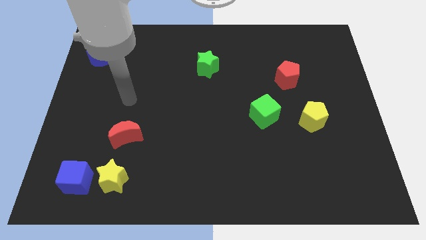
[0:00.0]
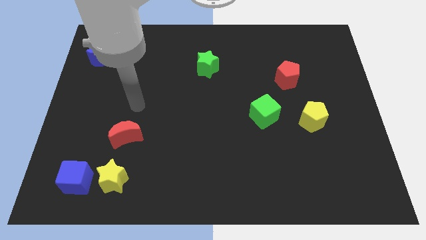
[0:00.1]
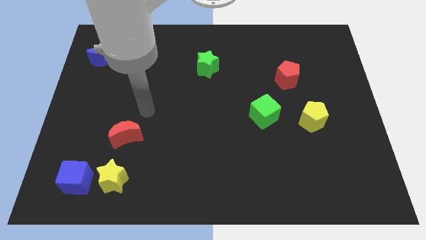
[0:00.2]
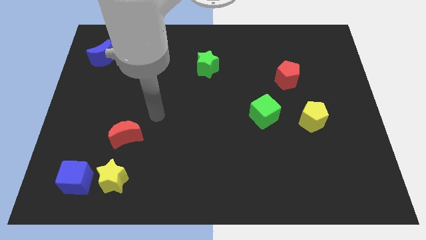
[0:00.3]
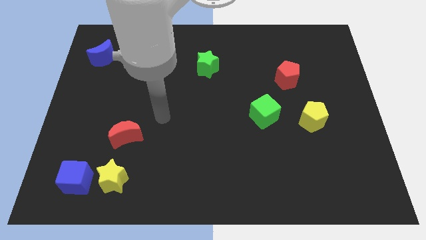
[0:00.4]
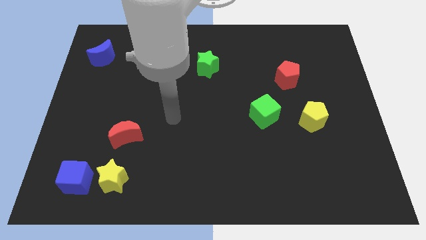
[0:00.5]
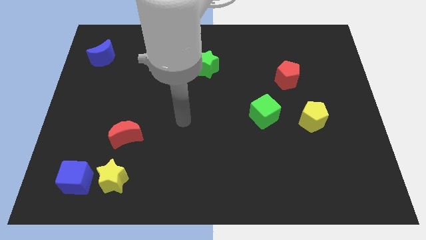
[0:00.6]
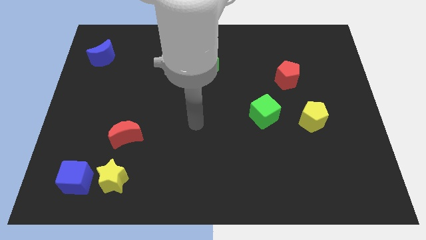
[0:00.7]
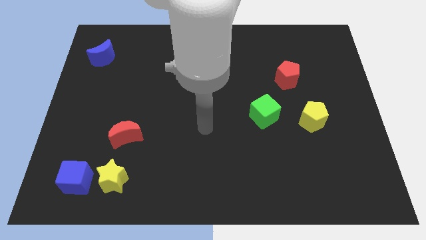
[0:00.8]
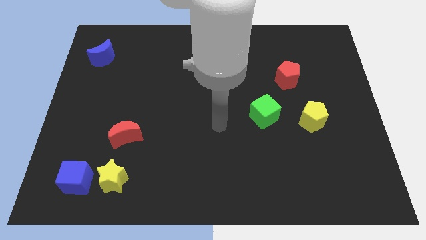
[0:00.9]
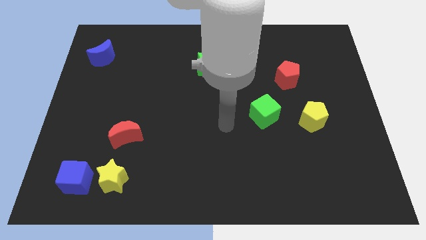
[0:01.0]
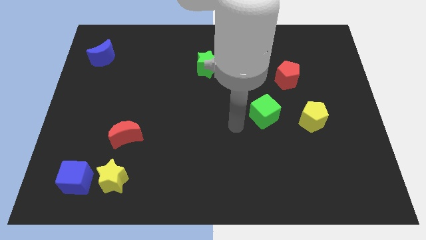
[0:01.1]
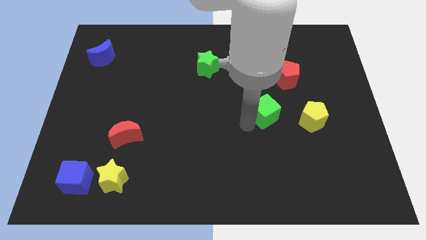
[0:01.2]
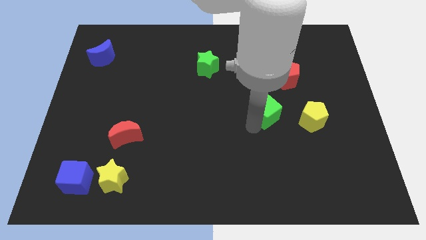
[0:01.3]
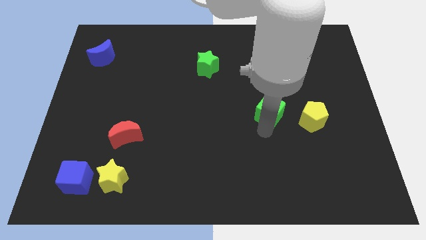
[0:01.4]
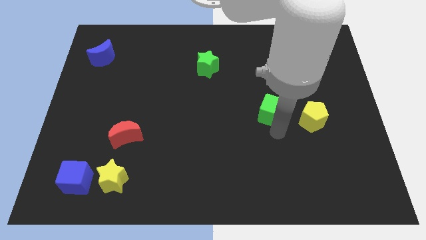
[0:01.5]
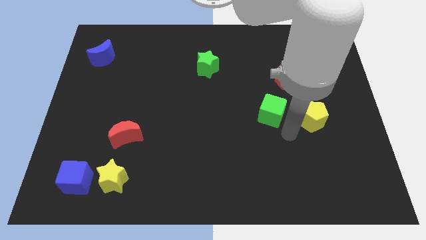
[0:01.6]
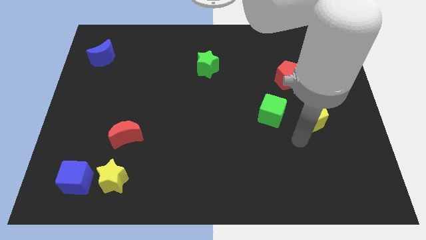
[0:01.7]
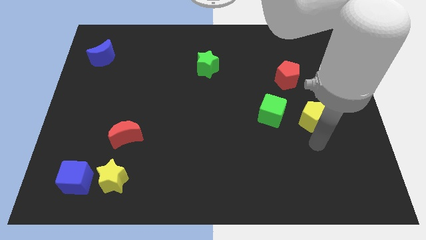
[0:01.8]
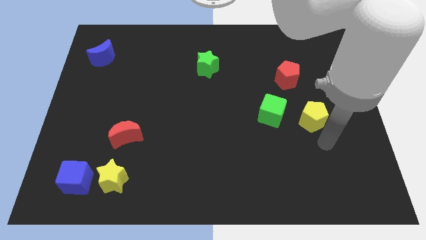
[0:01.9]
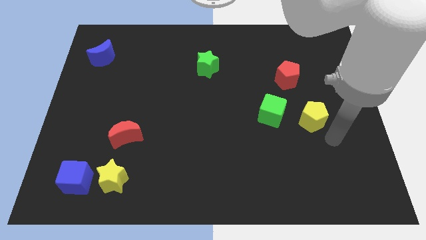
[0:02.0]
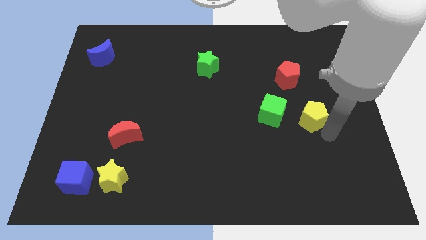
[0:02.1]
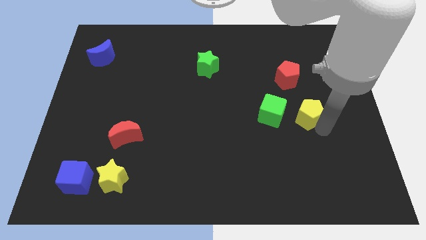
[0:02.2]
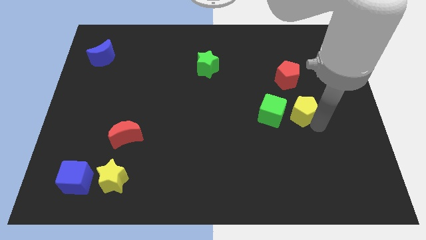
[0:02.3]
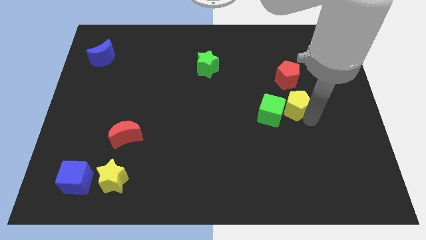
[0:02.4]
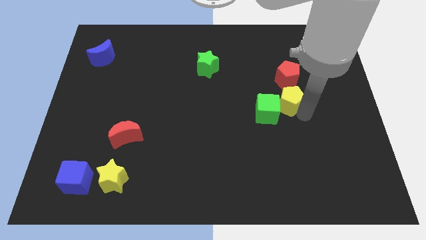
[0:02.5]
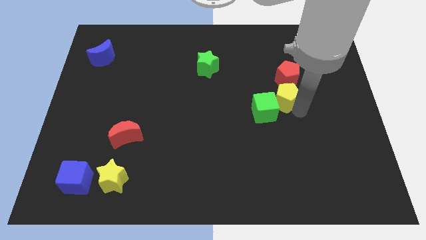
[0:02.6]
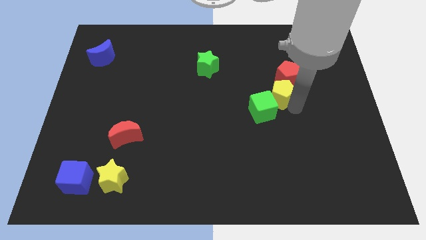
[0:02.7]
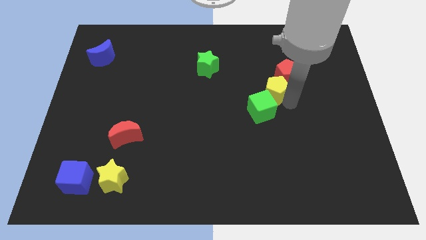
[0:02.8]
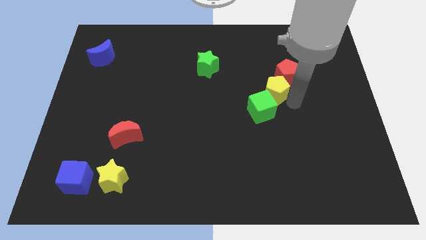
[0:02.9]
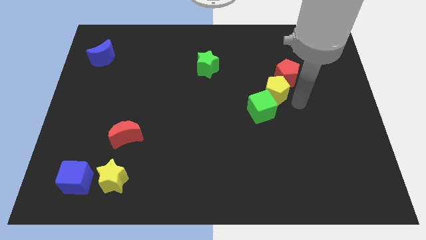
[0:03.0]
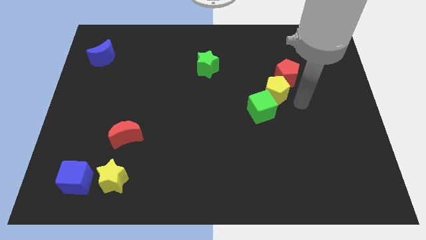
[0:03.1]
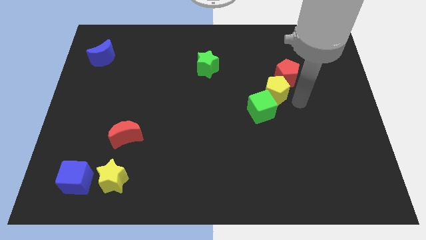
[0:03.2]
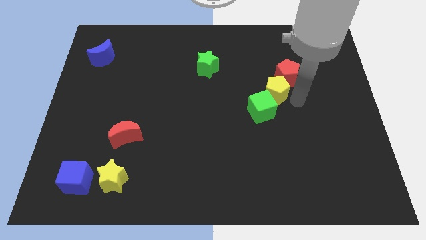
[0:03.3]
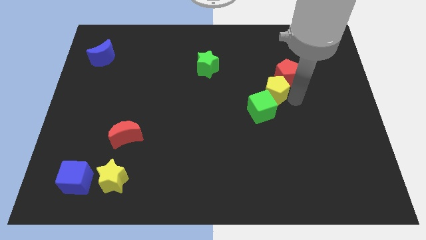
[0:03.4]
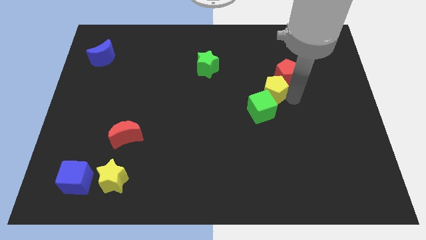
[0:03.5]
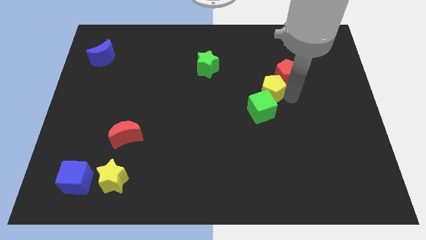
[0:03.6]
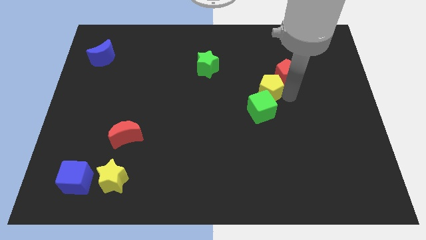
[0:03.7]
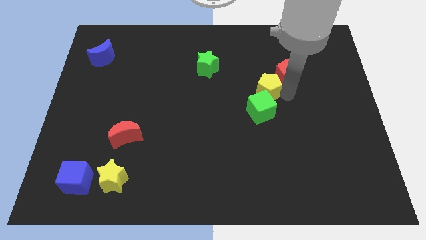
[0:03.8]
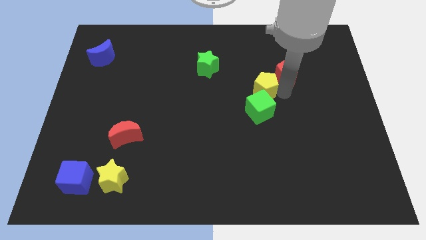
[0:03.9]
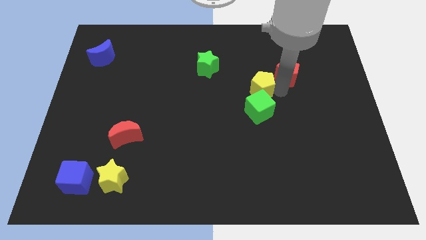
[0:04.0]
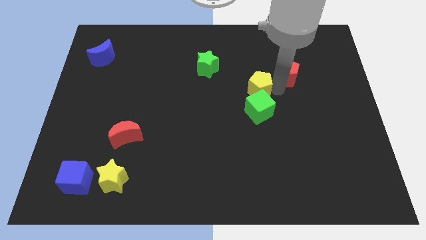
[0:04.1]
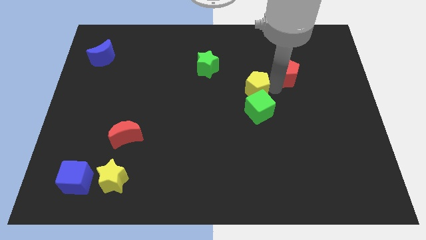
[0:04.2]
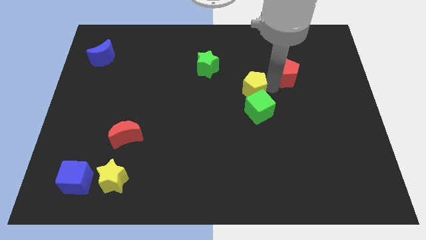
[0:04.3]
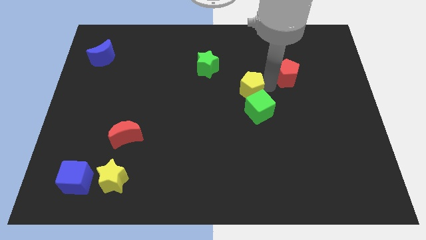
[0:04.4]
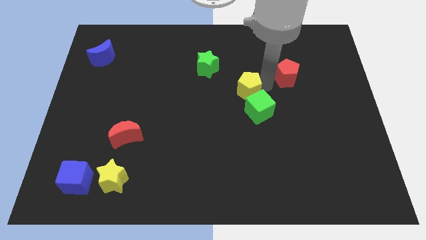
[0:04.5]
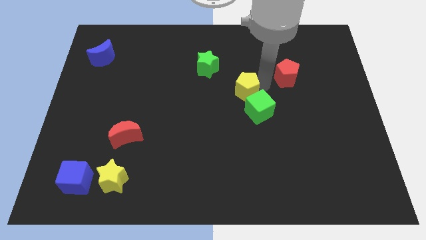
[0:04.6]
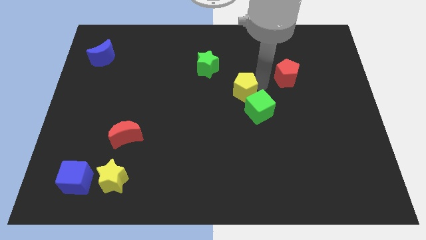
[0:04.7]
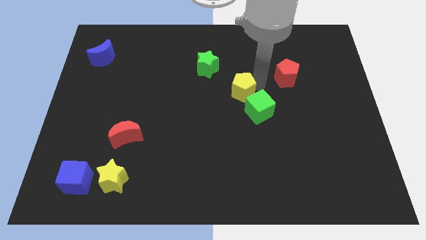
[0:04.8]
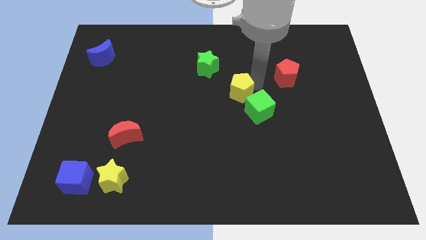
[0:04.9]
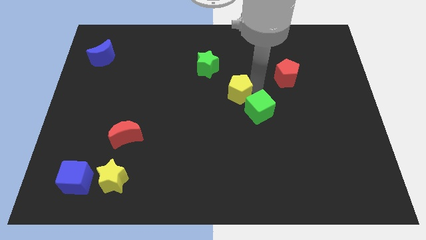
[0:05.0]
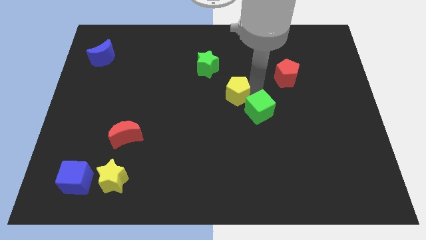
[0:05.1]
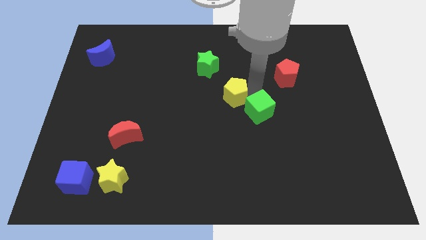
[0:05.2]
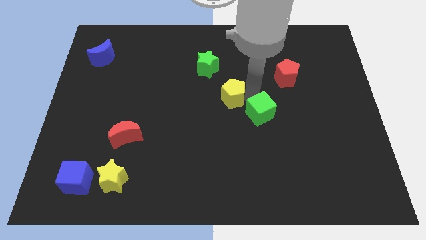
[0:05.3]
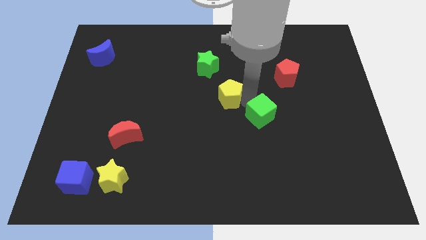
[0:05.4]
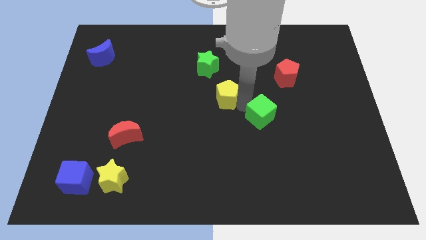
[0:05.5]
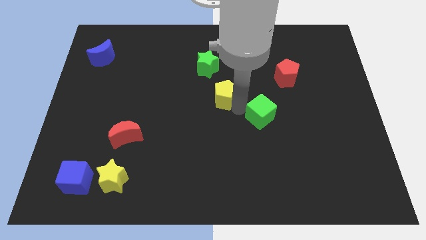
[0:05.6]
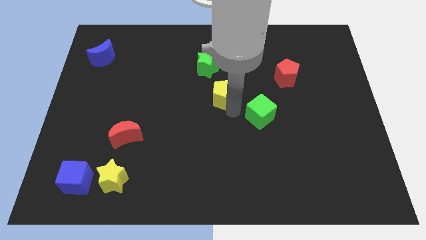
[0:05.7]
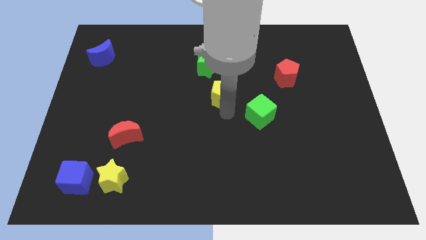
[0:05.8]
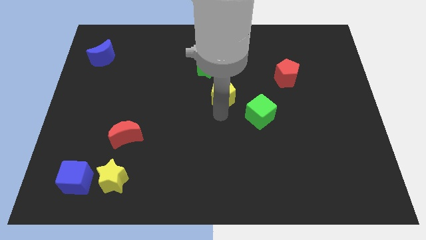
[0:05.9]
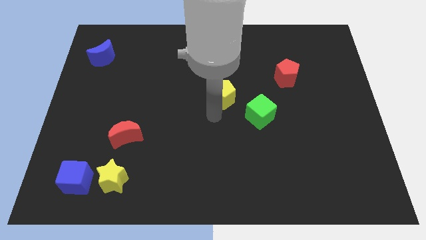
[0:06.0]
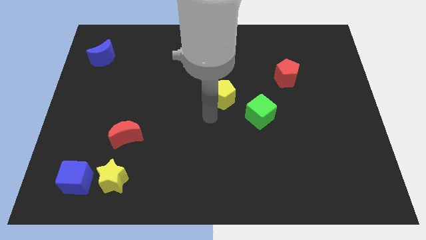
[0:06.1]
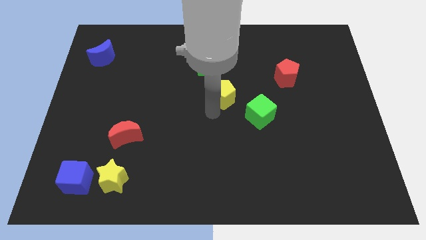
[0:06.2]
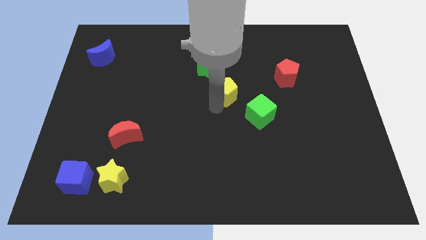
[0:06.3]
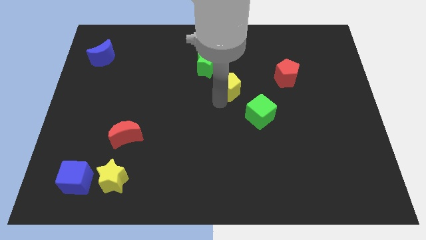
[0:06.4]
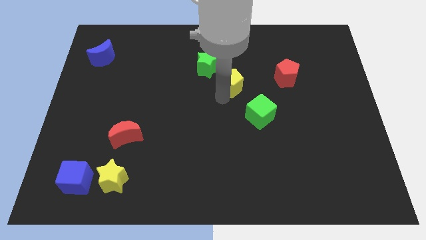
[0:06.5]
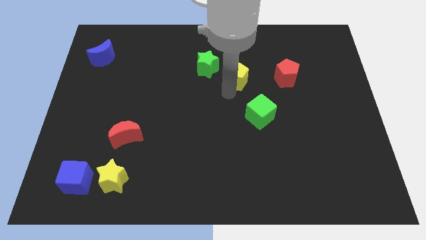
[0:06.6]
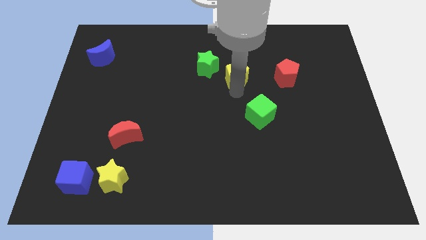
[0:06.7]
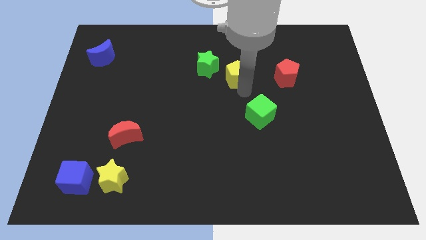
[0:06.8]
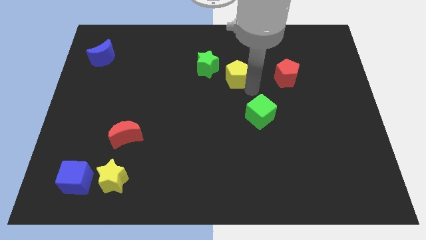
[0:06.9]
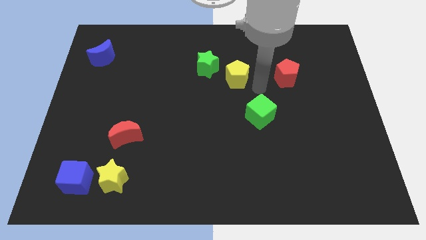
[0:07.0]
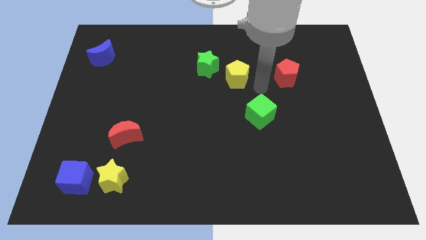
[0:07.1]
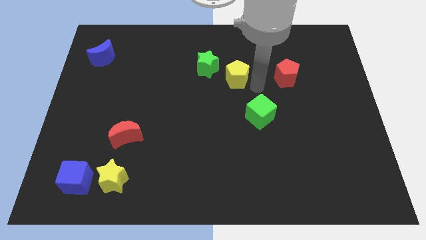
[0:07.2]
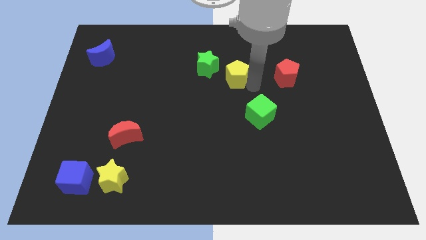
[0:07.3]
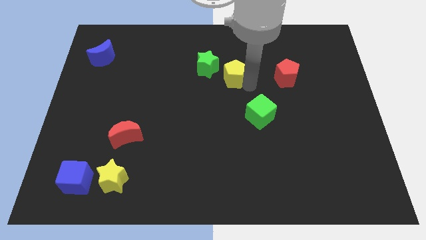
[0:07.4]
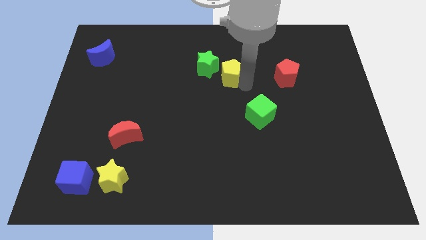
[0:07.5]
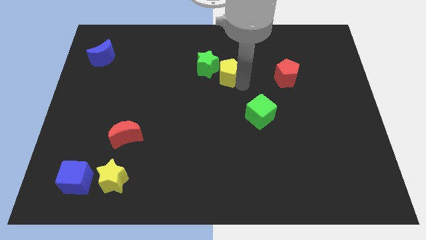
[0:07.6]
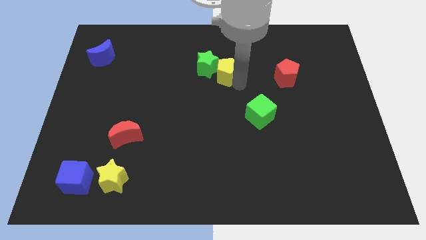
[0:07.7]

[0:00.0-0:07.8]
push the yellow pentagon next to the green star

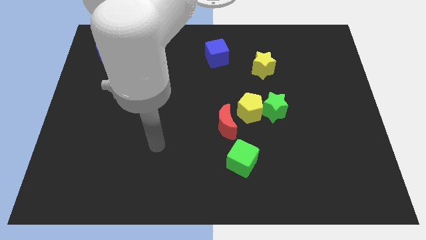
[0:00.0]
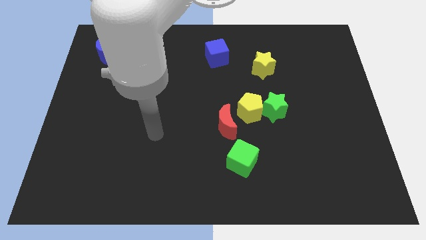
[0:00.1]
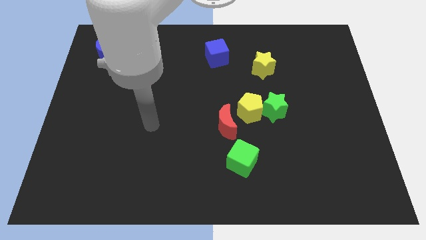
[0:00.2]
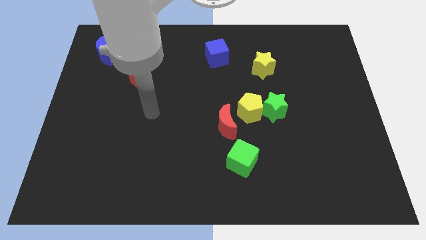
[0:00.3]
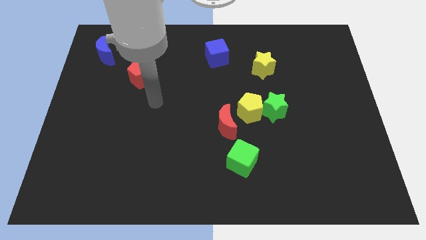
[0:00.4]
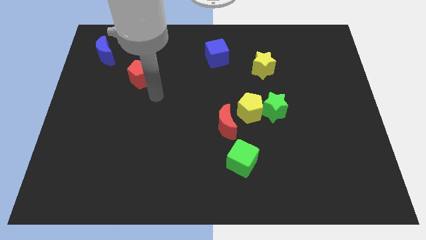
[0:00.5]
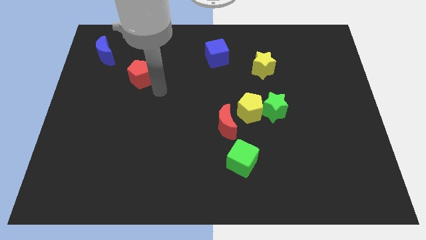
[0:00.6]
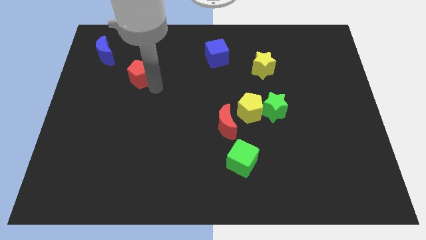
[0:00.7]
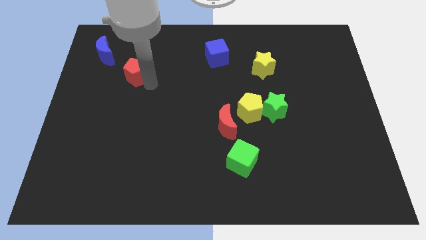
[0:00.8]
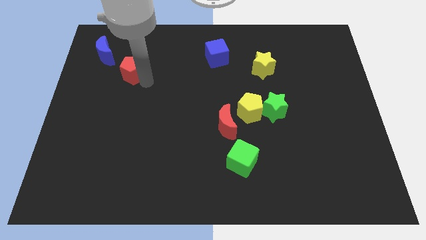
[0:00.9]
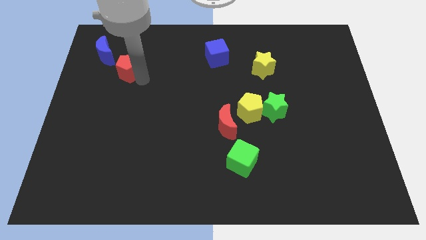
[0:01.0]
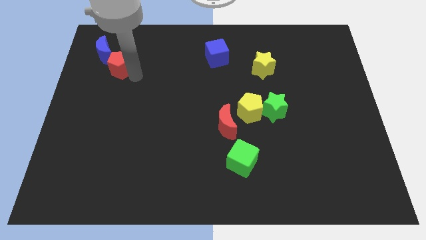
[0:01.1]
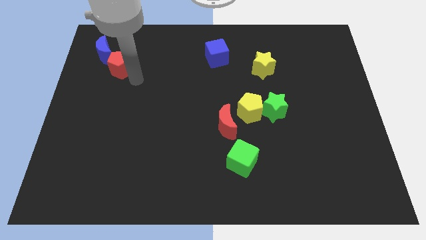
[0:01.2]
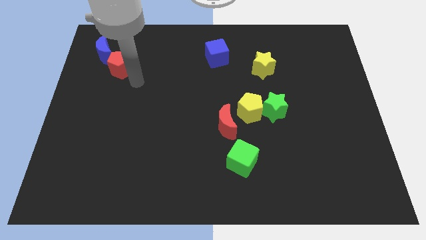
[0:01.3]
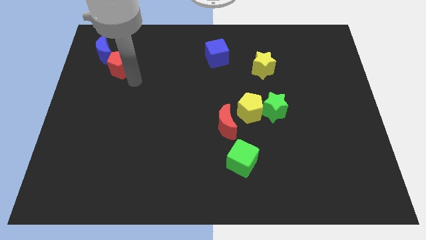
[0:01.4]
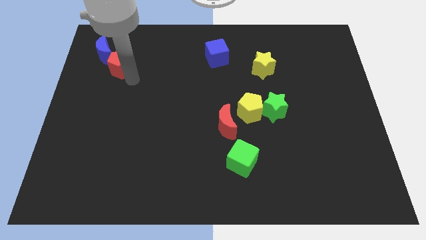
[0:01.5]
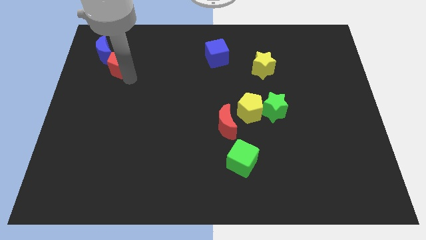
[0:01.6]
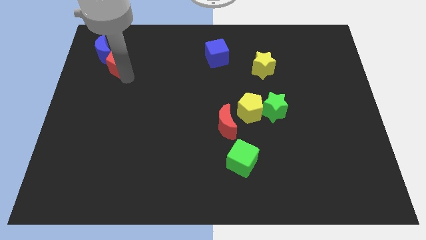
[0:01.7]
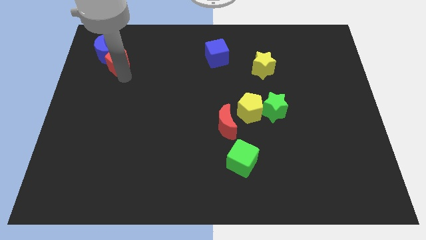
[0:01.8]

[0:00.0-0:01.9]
put the red pentagon next to the blue moon
